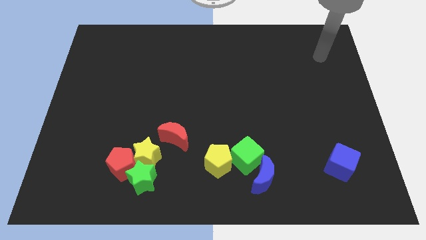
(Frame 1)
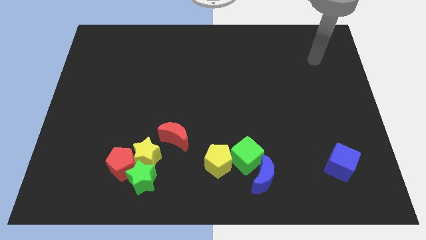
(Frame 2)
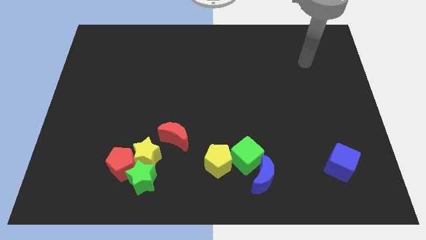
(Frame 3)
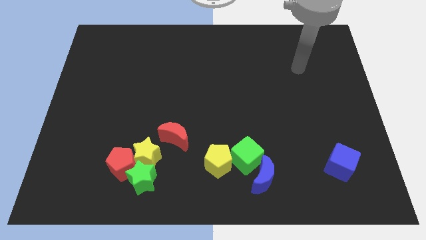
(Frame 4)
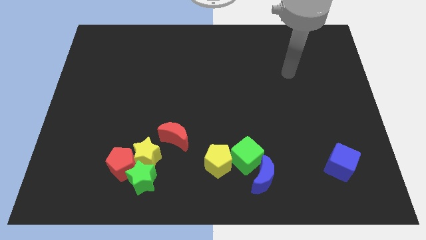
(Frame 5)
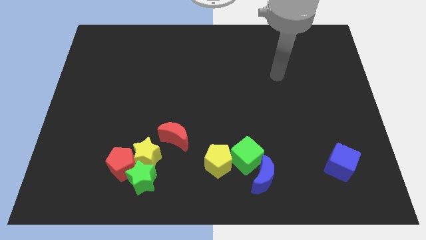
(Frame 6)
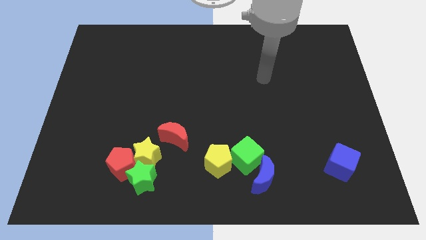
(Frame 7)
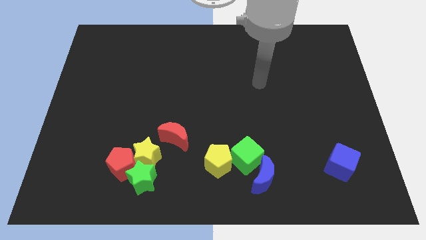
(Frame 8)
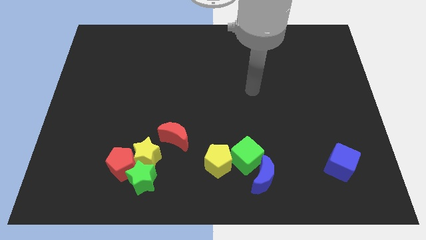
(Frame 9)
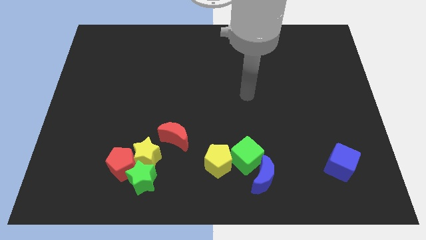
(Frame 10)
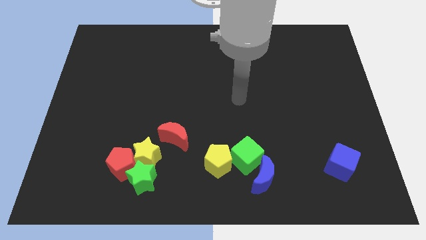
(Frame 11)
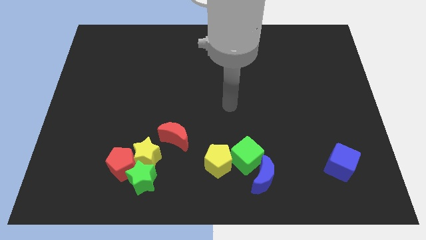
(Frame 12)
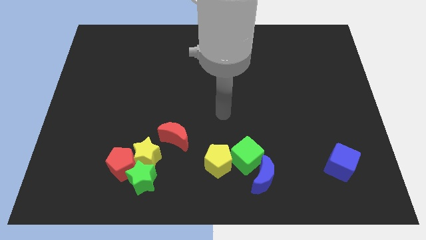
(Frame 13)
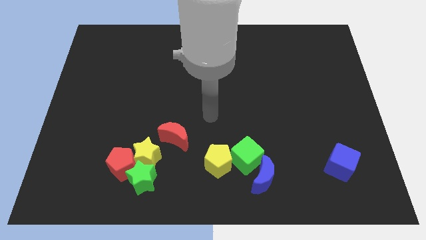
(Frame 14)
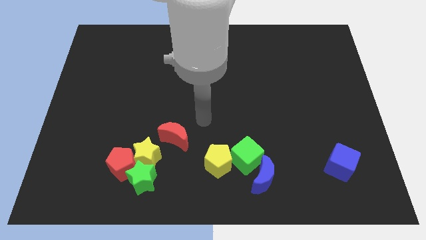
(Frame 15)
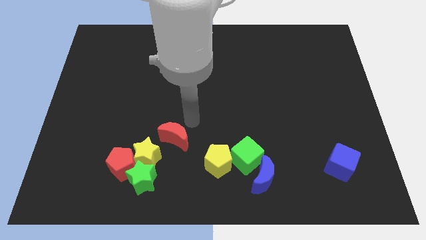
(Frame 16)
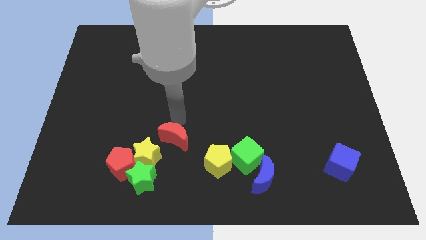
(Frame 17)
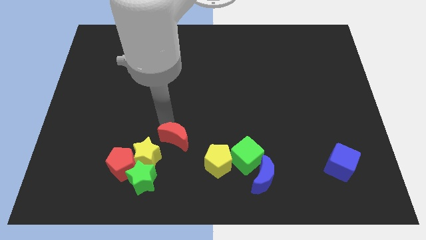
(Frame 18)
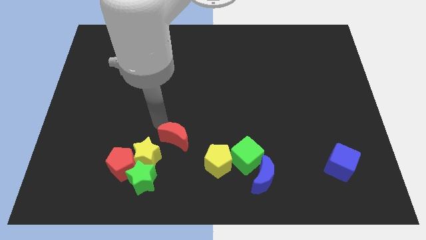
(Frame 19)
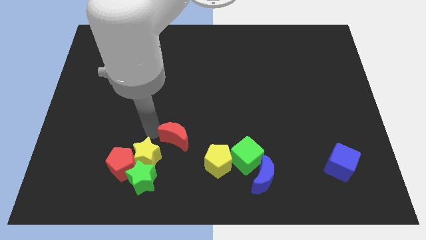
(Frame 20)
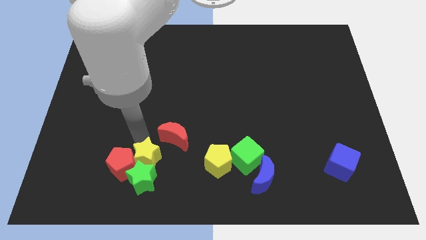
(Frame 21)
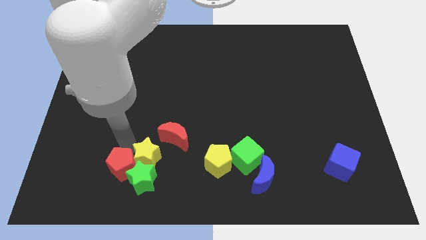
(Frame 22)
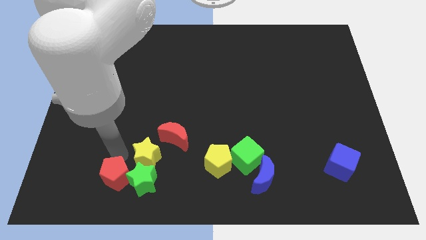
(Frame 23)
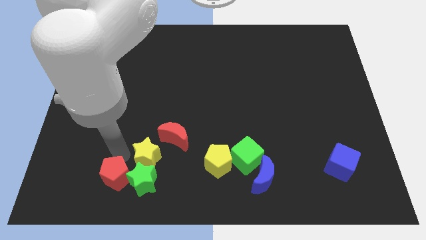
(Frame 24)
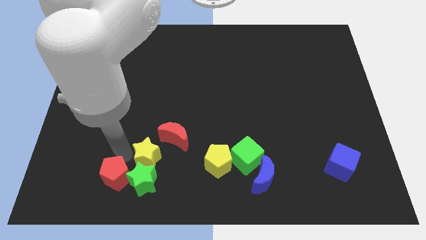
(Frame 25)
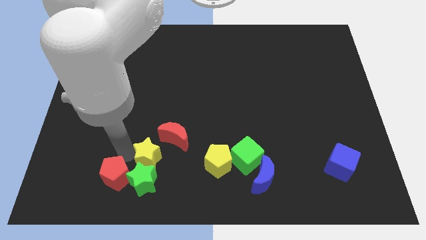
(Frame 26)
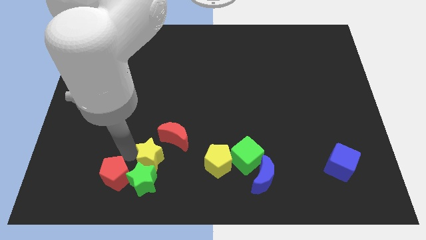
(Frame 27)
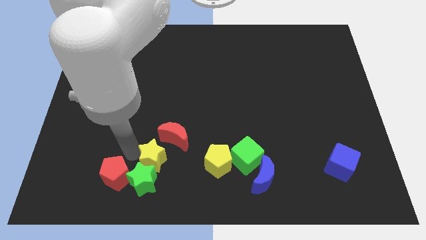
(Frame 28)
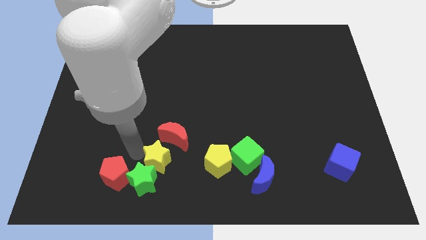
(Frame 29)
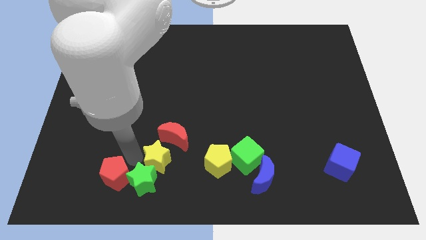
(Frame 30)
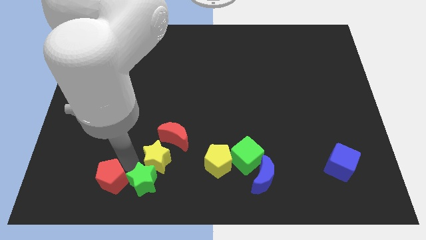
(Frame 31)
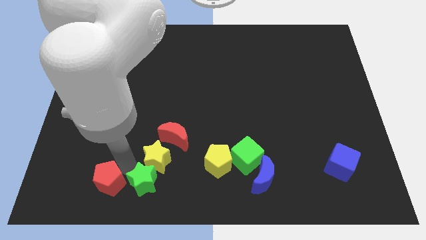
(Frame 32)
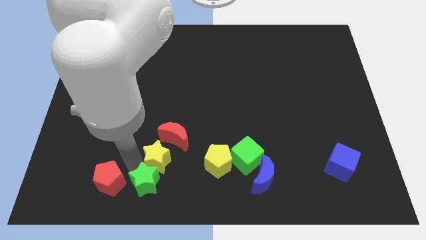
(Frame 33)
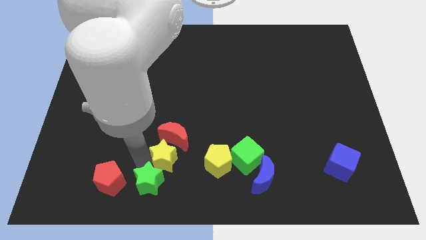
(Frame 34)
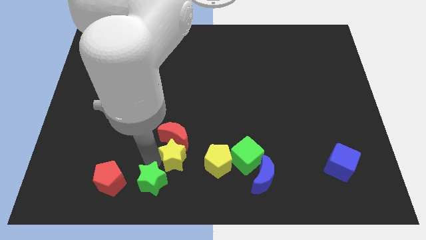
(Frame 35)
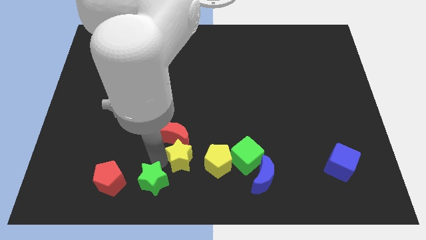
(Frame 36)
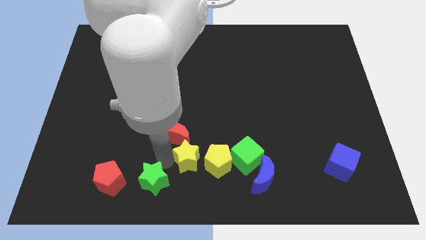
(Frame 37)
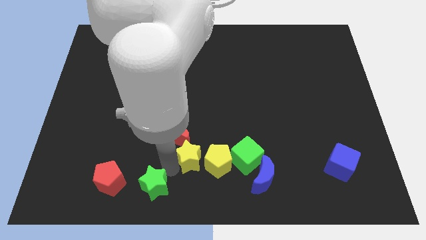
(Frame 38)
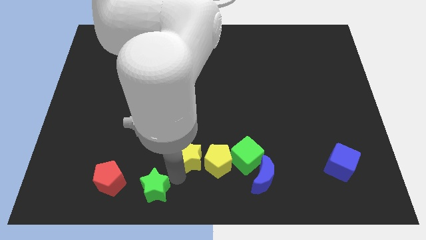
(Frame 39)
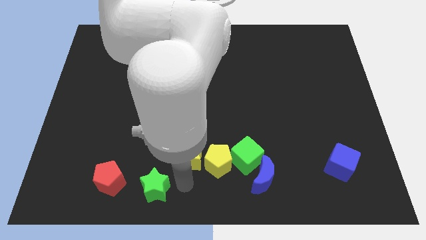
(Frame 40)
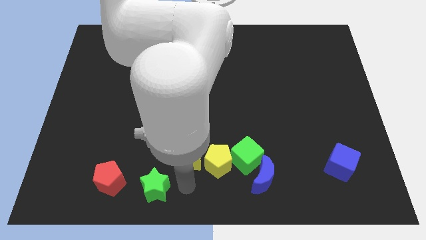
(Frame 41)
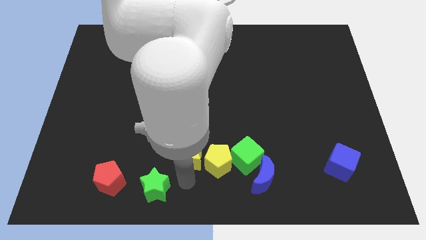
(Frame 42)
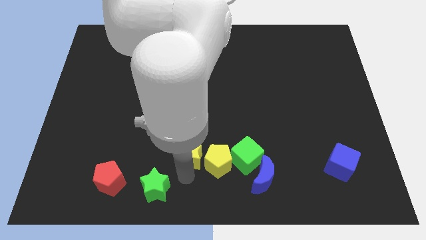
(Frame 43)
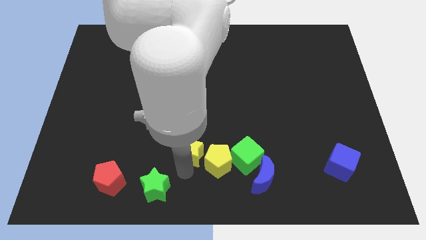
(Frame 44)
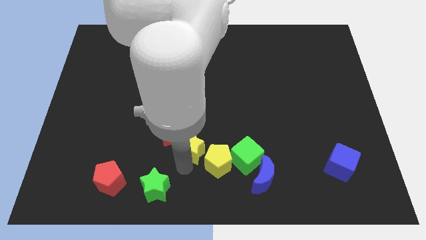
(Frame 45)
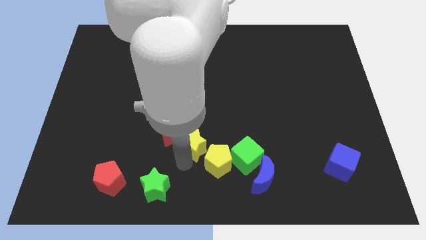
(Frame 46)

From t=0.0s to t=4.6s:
slightly push the yellow star diagonally up and right

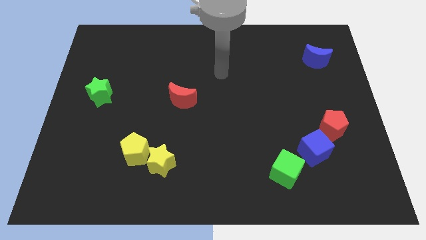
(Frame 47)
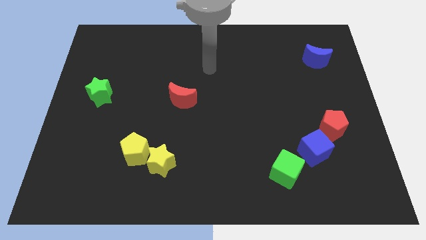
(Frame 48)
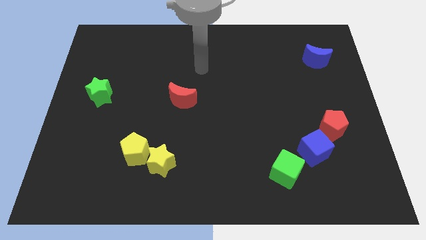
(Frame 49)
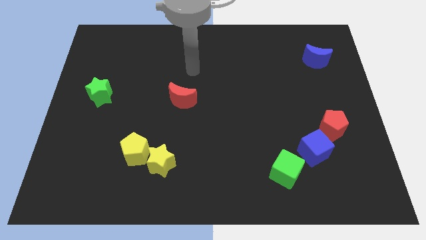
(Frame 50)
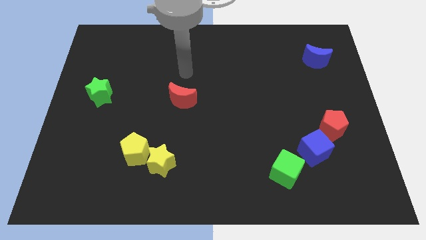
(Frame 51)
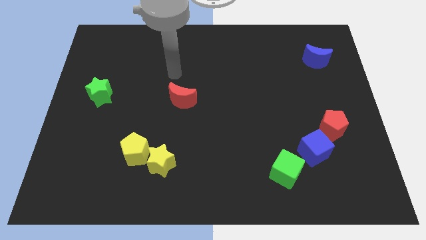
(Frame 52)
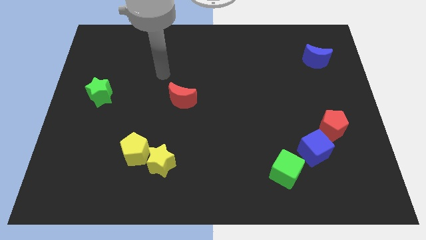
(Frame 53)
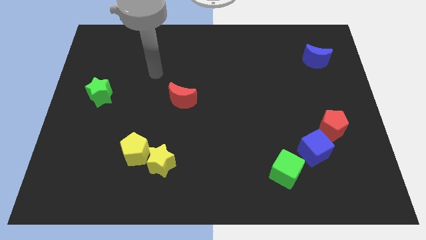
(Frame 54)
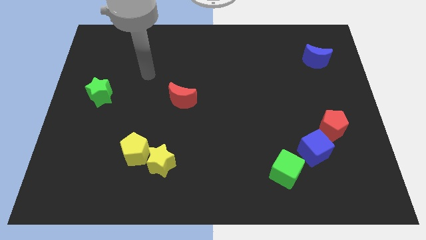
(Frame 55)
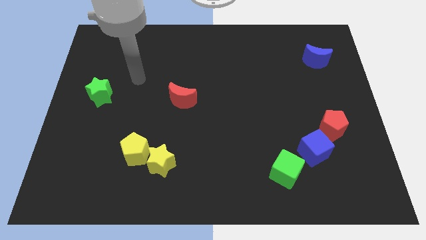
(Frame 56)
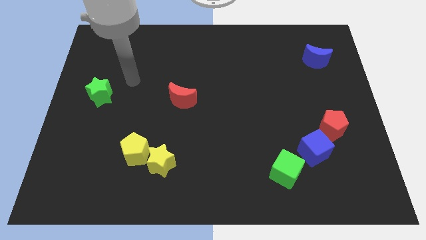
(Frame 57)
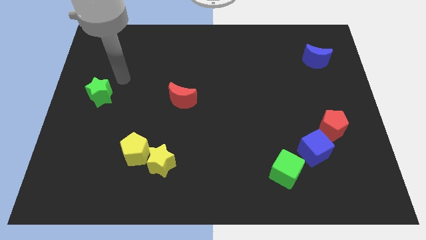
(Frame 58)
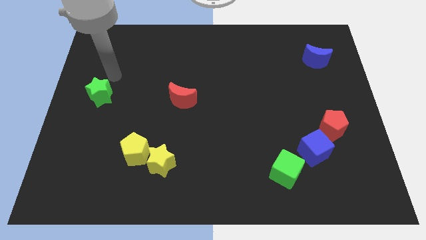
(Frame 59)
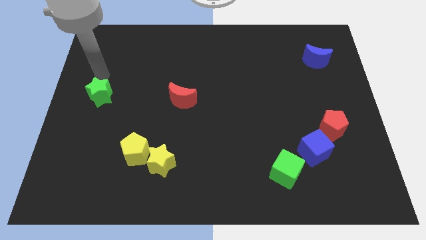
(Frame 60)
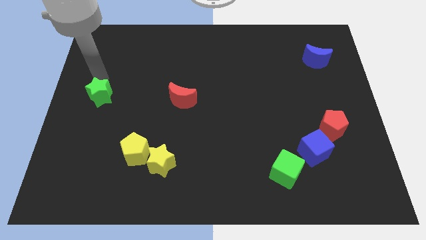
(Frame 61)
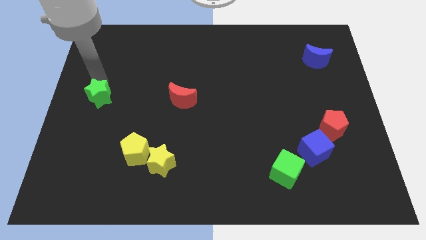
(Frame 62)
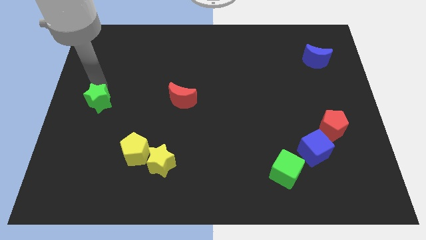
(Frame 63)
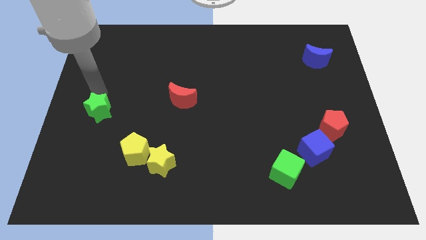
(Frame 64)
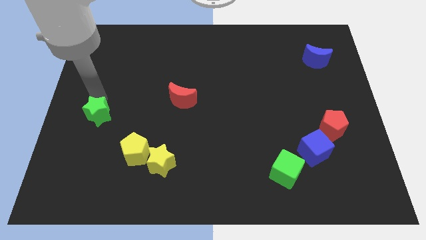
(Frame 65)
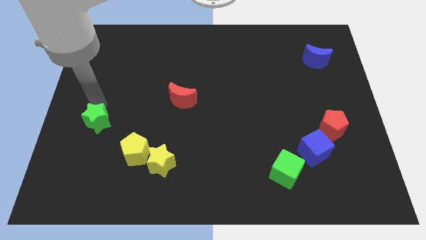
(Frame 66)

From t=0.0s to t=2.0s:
push the green star down a little

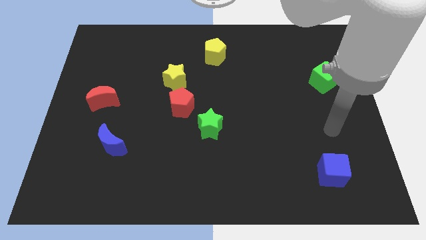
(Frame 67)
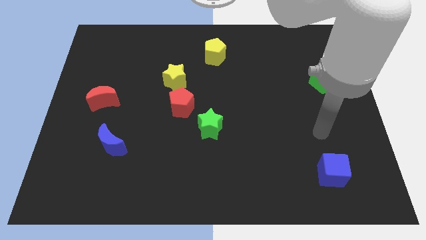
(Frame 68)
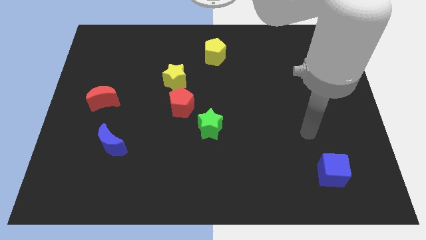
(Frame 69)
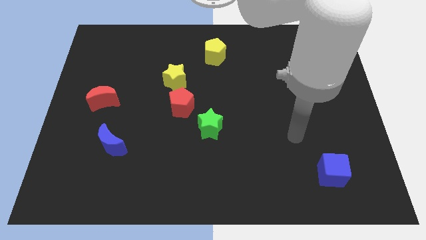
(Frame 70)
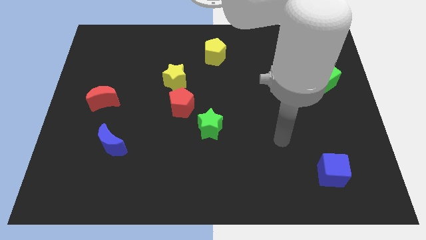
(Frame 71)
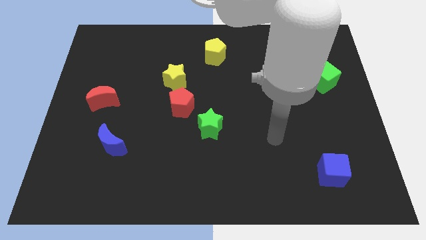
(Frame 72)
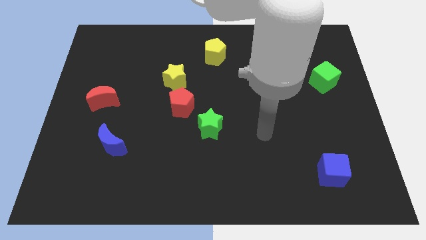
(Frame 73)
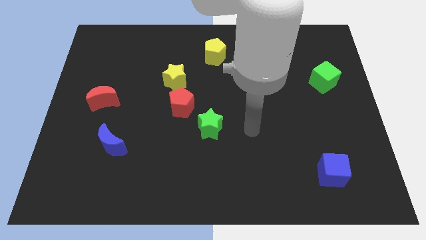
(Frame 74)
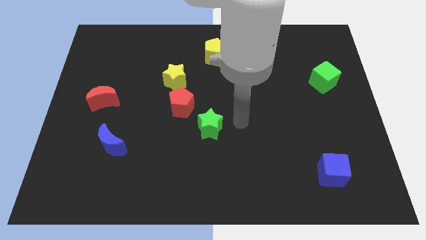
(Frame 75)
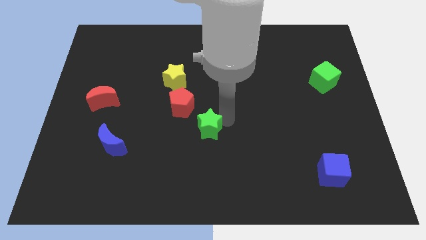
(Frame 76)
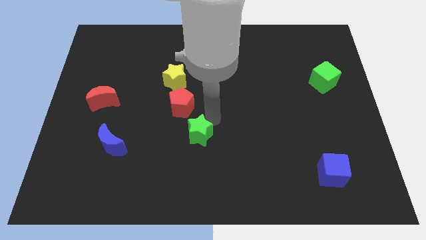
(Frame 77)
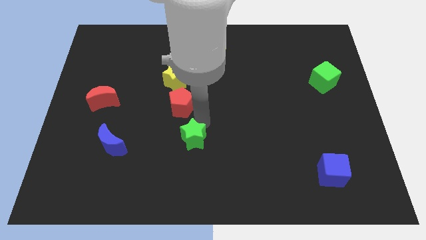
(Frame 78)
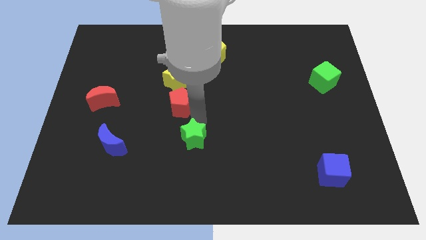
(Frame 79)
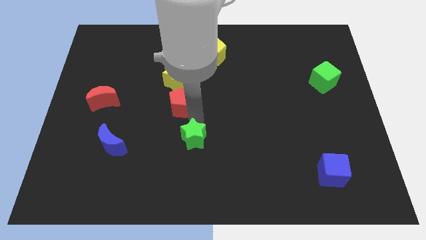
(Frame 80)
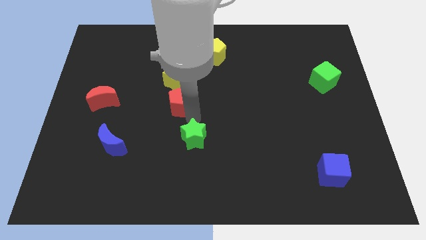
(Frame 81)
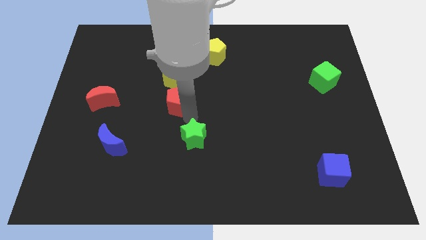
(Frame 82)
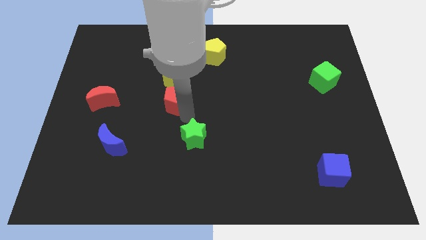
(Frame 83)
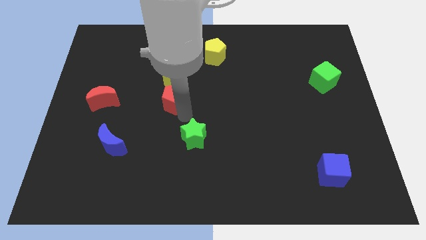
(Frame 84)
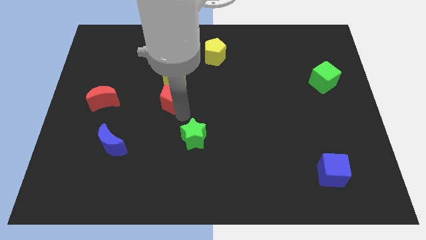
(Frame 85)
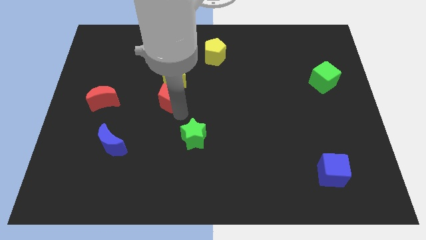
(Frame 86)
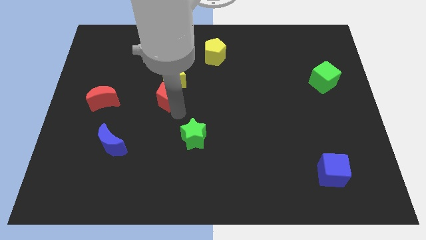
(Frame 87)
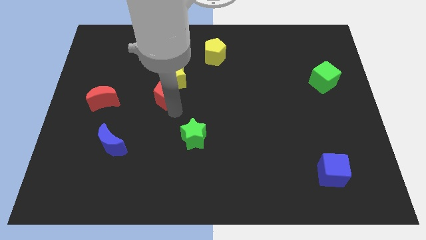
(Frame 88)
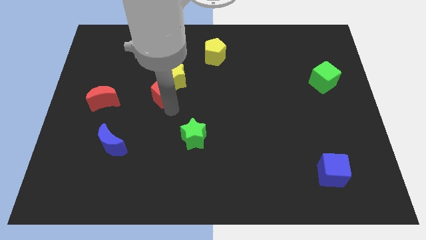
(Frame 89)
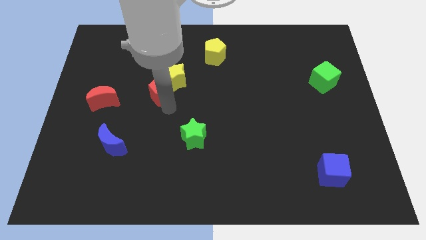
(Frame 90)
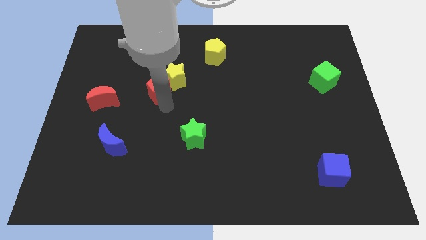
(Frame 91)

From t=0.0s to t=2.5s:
slightly push the red pentagon upwards and left diagonally
